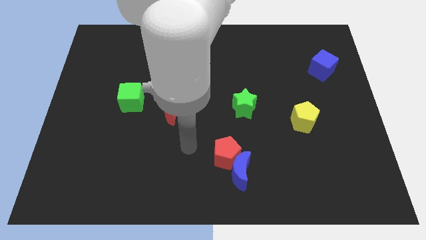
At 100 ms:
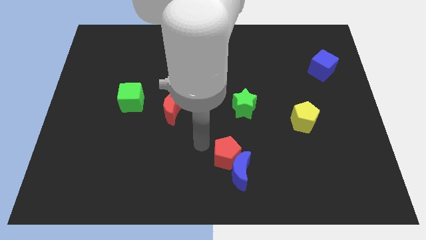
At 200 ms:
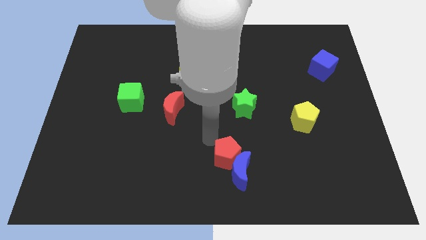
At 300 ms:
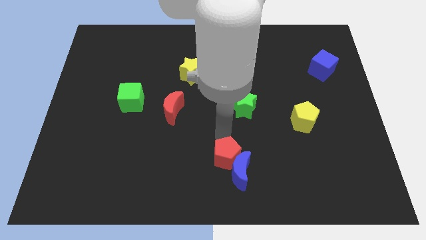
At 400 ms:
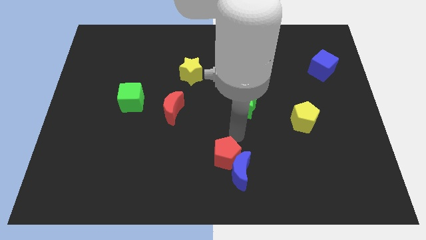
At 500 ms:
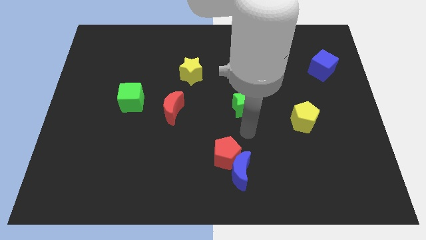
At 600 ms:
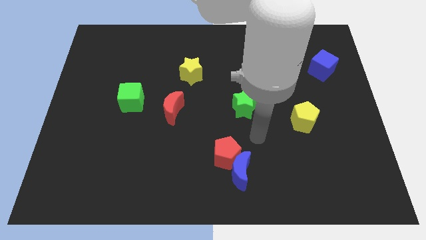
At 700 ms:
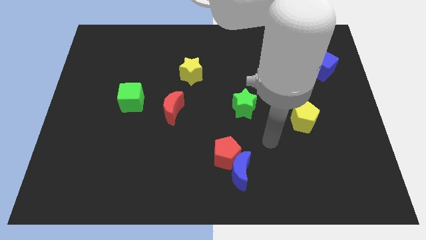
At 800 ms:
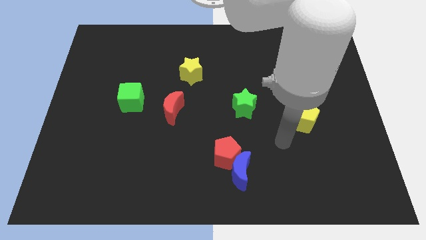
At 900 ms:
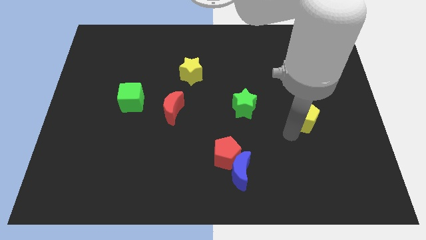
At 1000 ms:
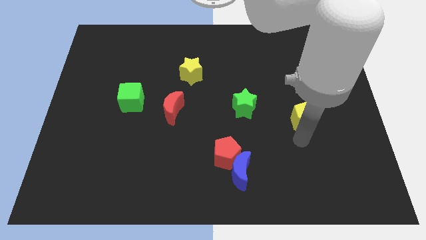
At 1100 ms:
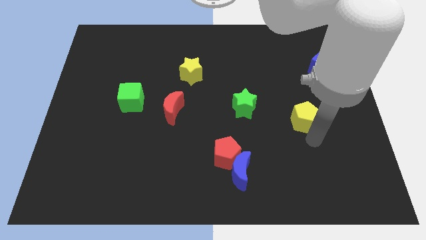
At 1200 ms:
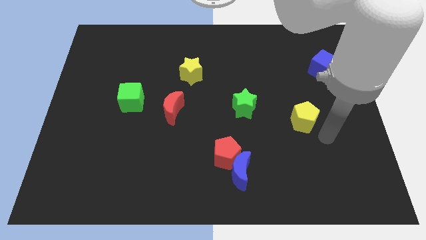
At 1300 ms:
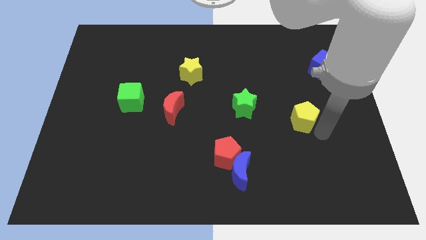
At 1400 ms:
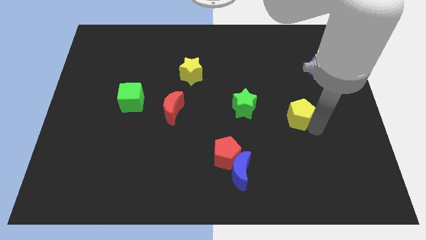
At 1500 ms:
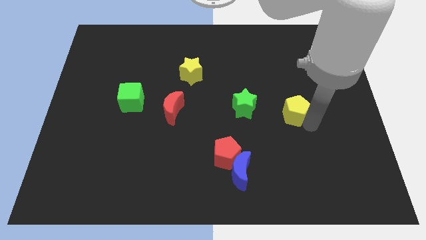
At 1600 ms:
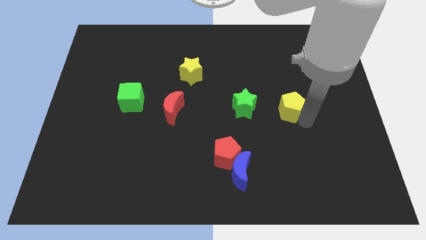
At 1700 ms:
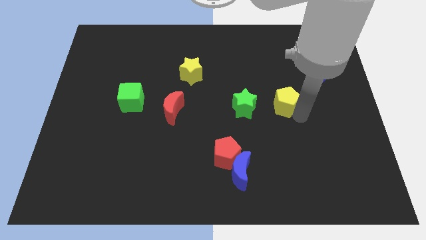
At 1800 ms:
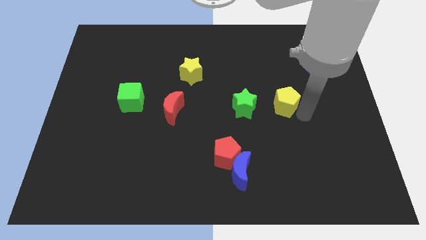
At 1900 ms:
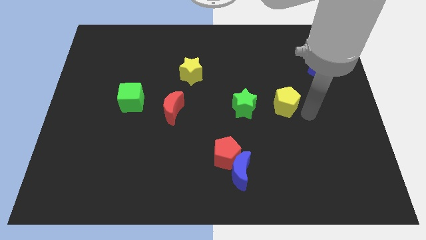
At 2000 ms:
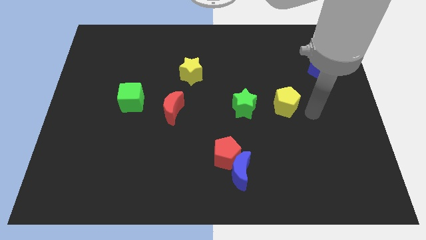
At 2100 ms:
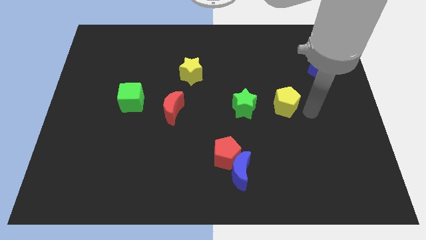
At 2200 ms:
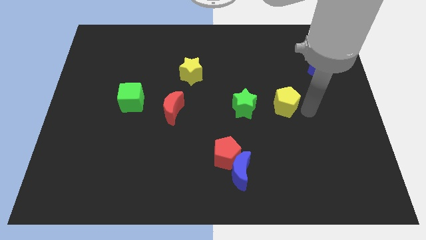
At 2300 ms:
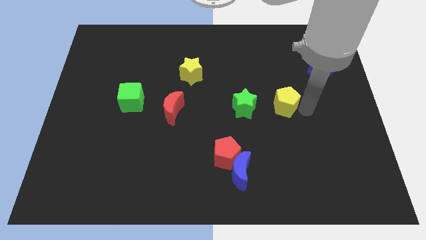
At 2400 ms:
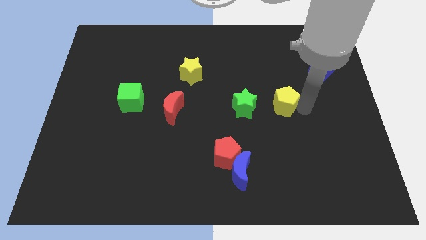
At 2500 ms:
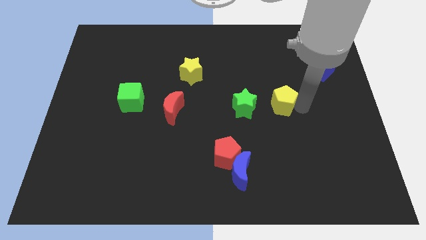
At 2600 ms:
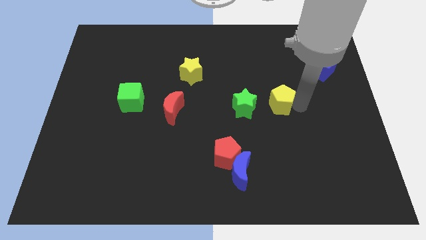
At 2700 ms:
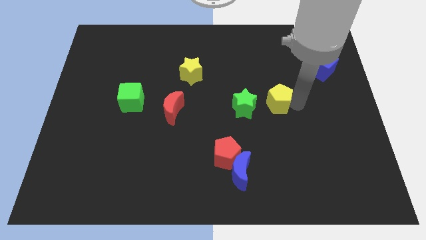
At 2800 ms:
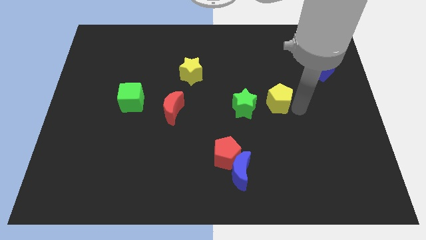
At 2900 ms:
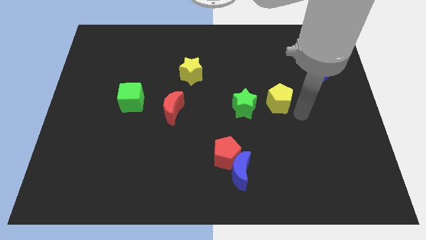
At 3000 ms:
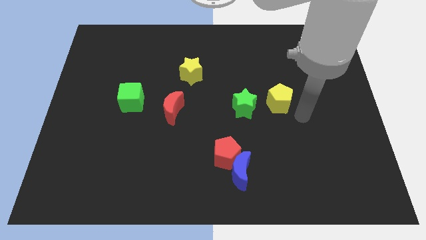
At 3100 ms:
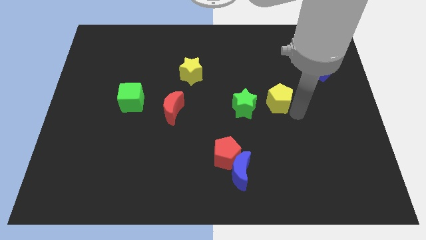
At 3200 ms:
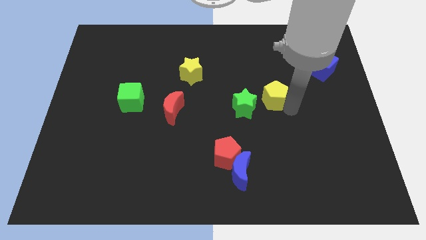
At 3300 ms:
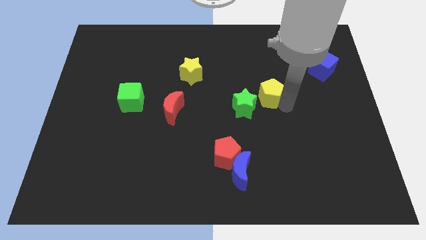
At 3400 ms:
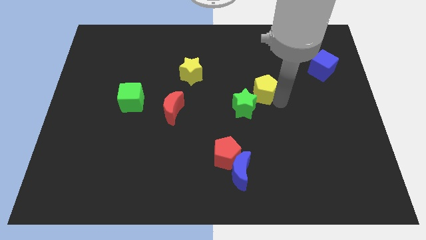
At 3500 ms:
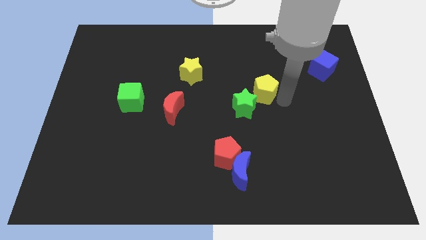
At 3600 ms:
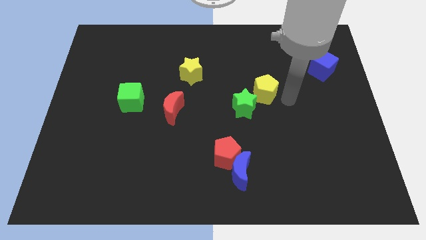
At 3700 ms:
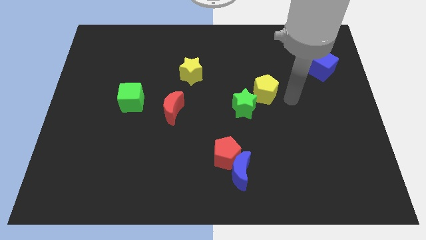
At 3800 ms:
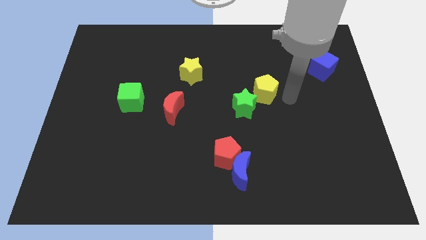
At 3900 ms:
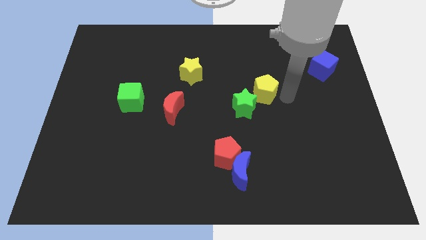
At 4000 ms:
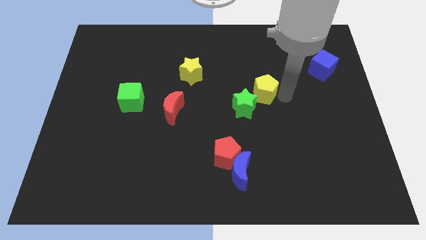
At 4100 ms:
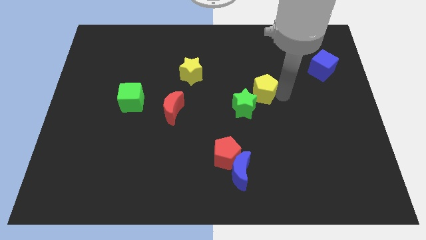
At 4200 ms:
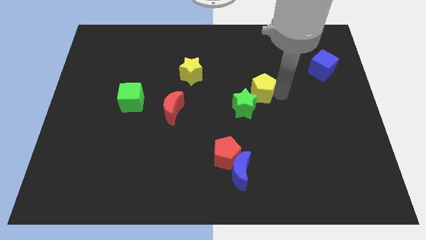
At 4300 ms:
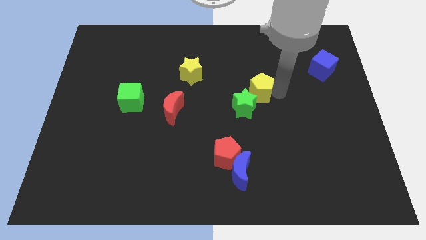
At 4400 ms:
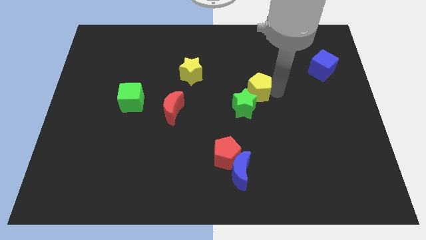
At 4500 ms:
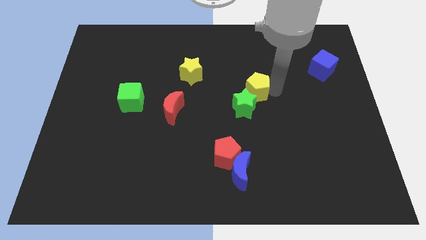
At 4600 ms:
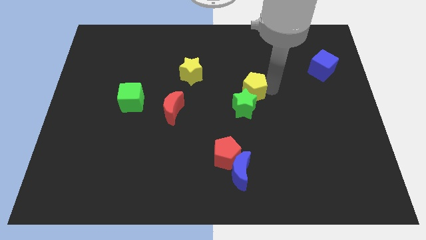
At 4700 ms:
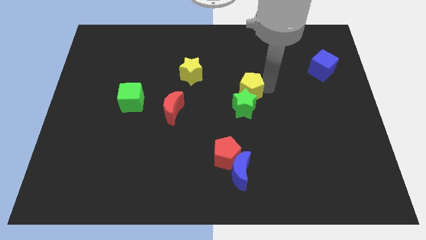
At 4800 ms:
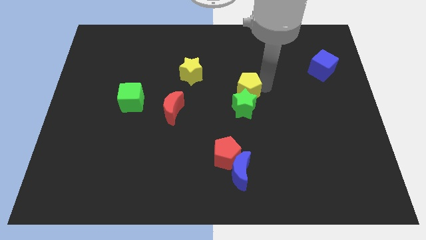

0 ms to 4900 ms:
put the yellow pentagon diagonally up and to the left of the green star

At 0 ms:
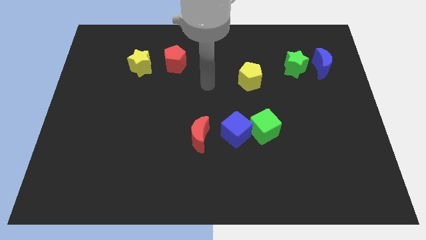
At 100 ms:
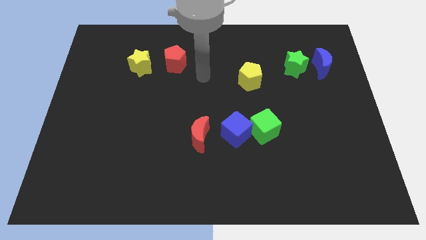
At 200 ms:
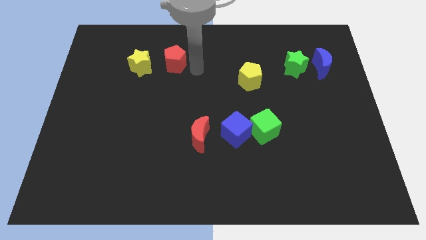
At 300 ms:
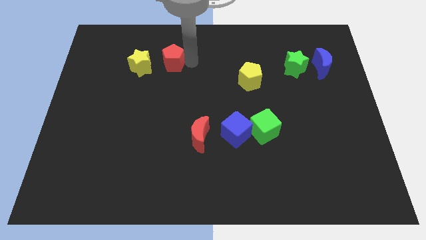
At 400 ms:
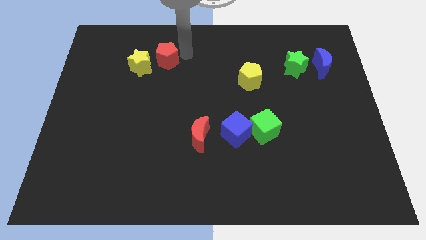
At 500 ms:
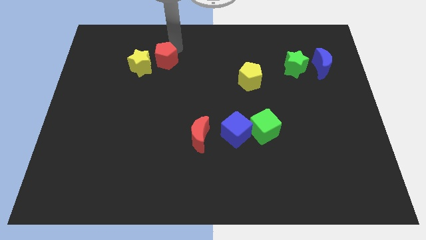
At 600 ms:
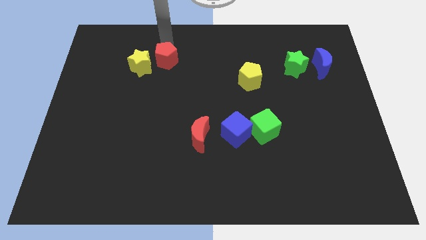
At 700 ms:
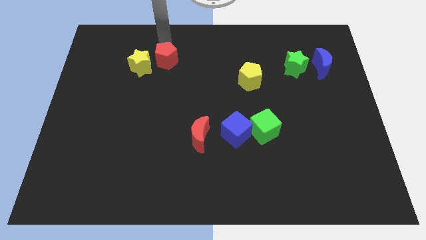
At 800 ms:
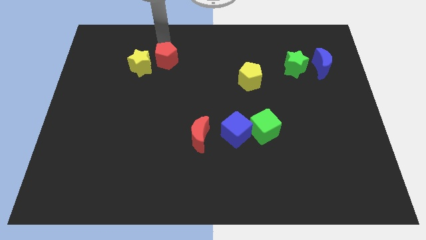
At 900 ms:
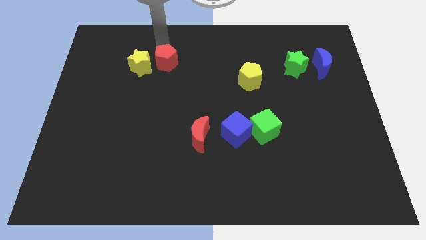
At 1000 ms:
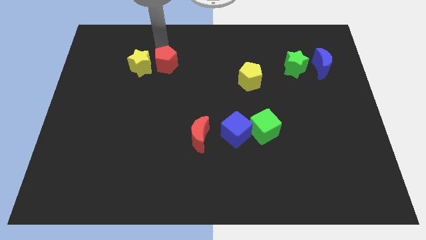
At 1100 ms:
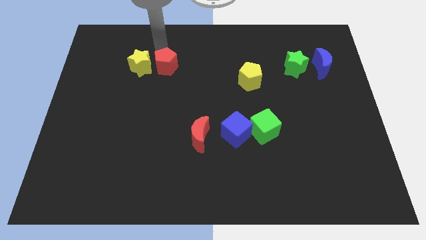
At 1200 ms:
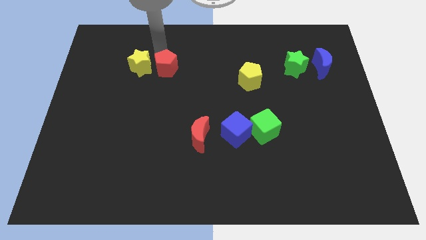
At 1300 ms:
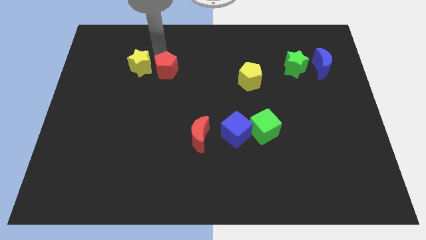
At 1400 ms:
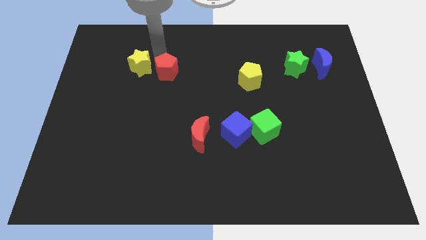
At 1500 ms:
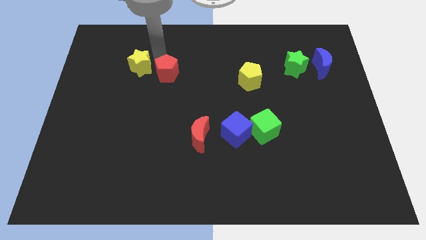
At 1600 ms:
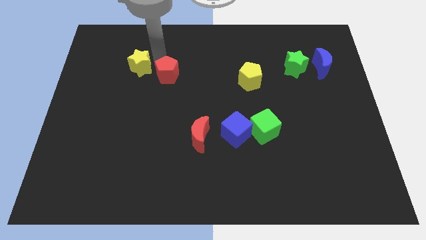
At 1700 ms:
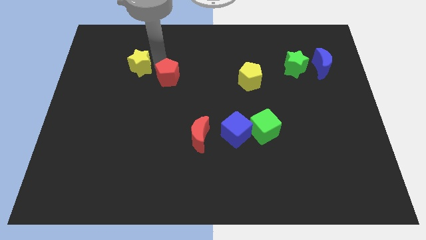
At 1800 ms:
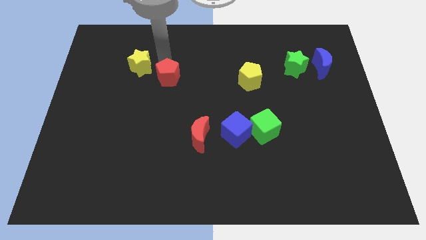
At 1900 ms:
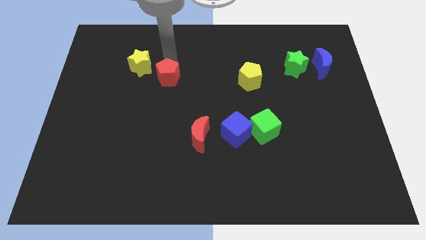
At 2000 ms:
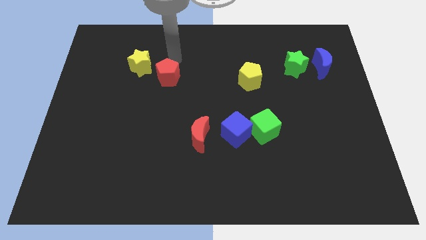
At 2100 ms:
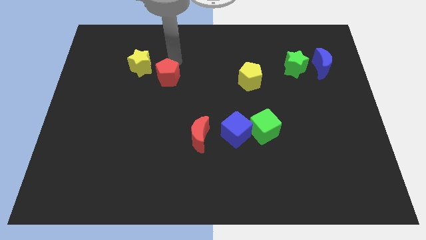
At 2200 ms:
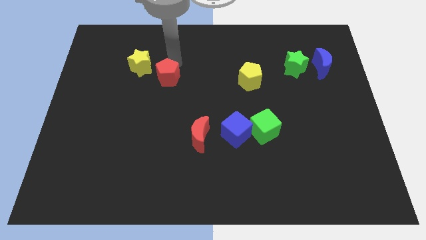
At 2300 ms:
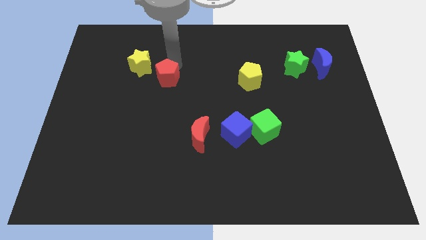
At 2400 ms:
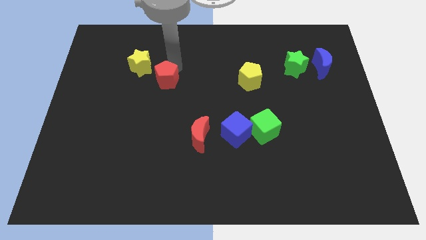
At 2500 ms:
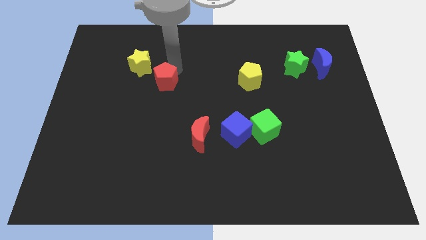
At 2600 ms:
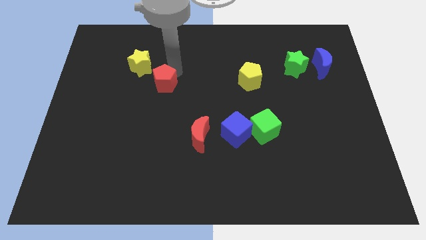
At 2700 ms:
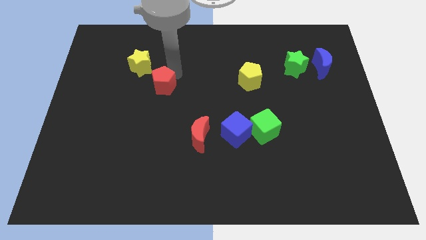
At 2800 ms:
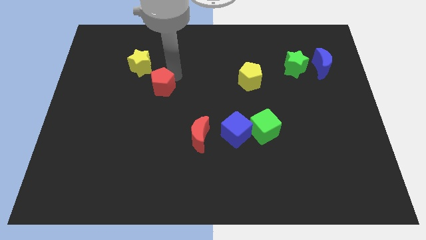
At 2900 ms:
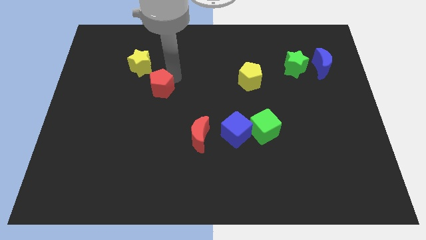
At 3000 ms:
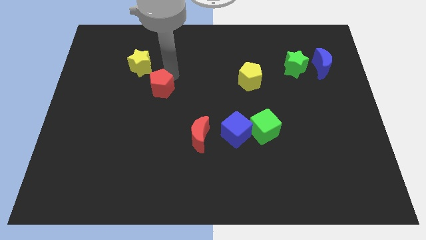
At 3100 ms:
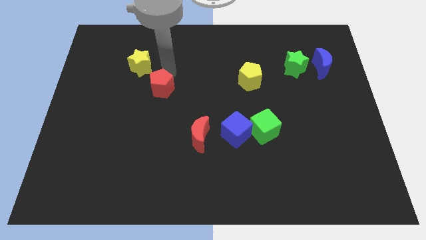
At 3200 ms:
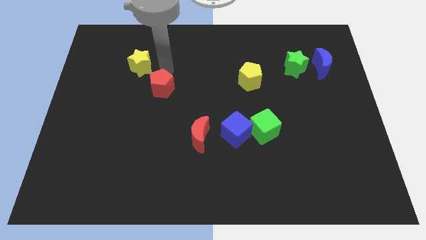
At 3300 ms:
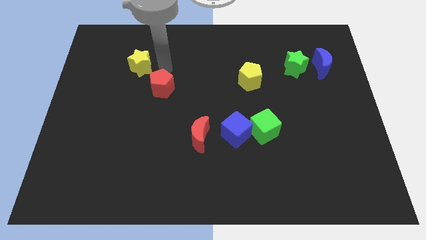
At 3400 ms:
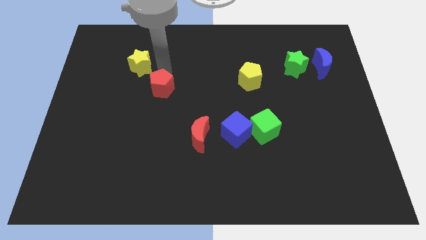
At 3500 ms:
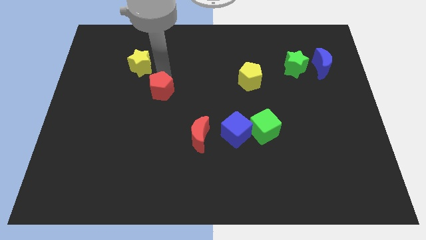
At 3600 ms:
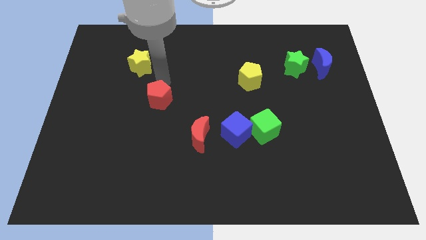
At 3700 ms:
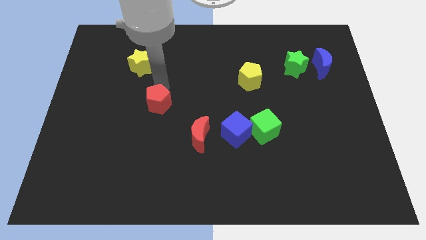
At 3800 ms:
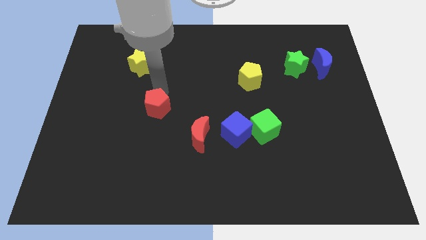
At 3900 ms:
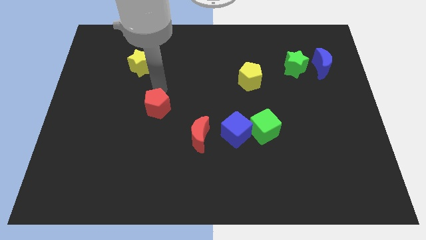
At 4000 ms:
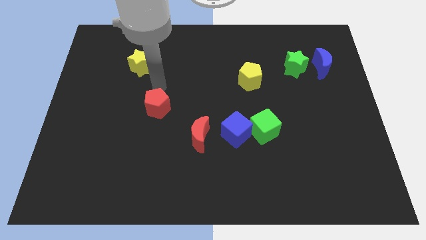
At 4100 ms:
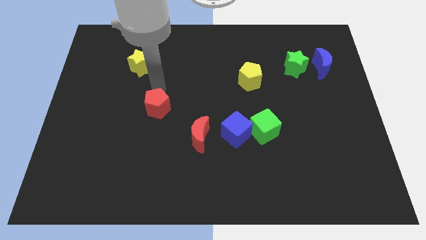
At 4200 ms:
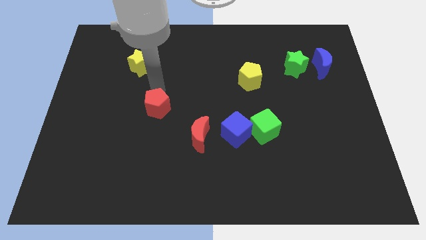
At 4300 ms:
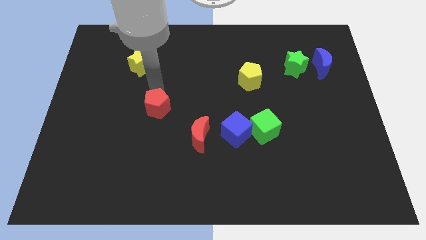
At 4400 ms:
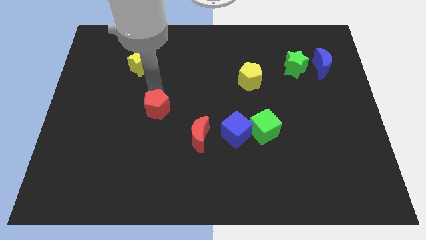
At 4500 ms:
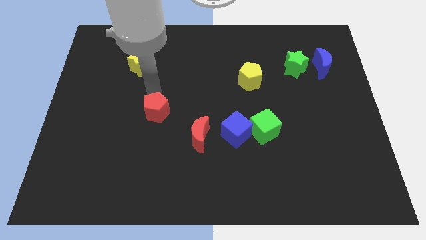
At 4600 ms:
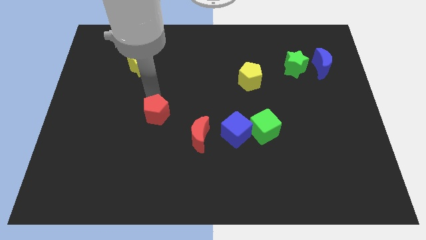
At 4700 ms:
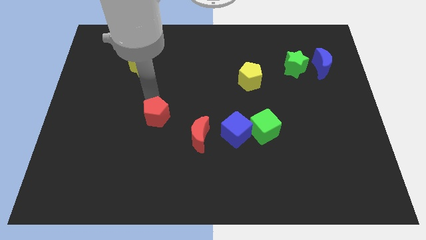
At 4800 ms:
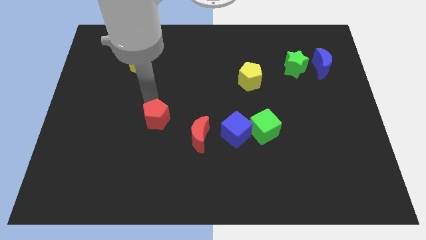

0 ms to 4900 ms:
push the red pentagon to the left side of the red moon
